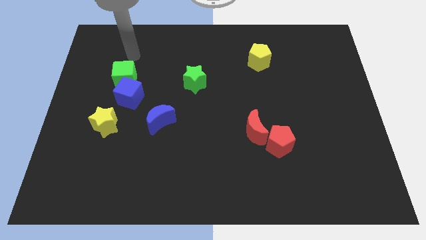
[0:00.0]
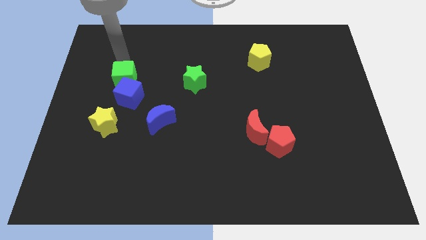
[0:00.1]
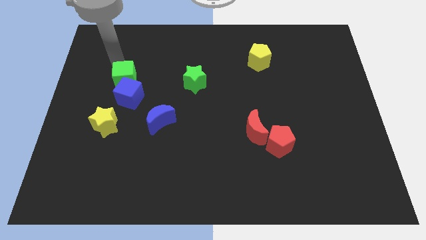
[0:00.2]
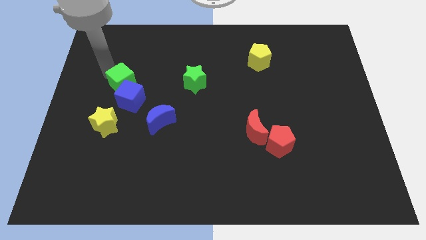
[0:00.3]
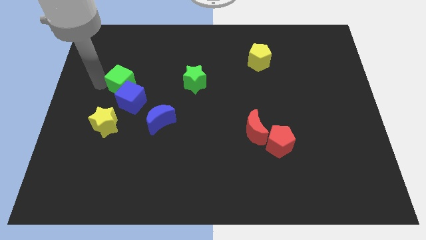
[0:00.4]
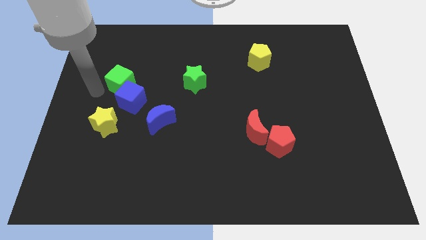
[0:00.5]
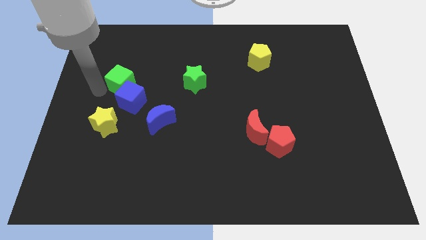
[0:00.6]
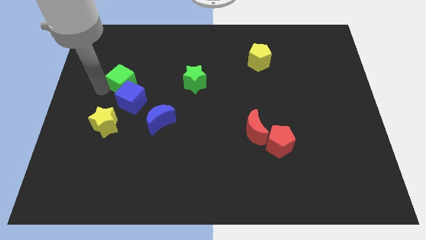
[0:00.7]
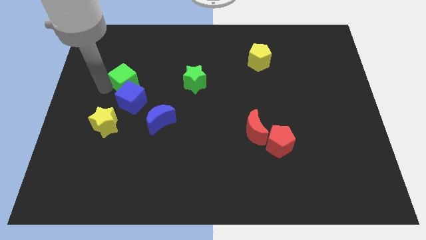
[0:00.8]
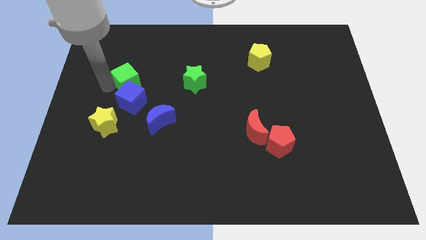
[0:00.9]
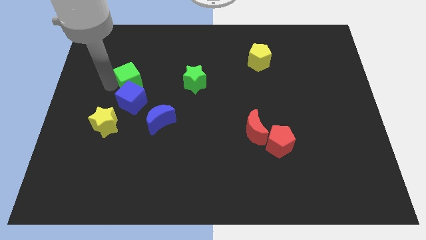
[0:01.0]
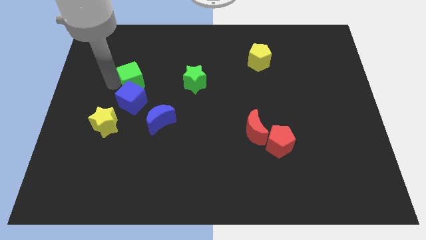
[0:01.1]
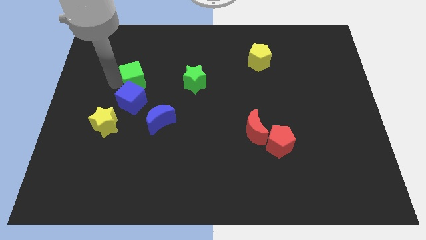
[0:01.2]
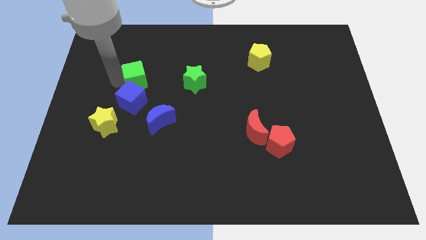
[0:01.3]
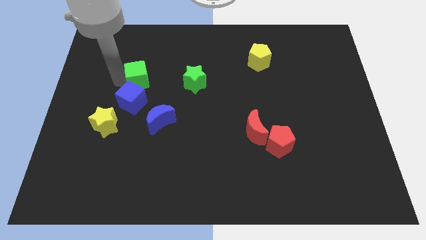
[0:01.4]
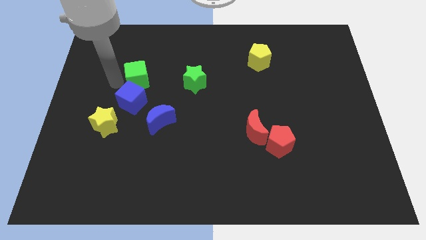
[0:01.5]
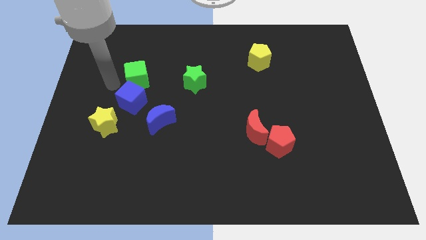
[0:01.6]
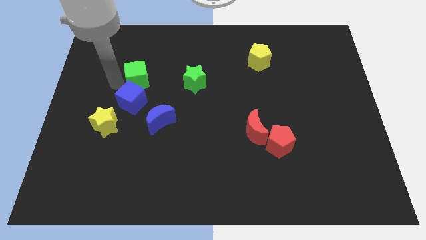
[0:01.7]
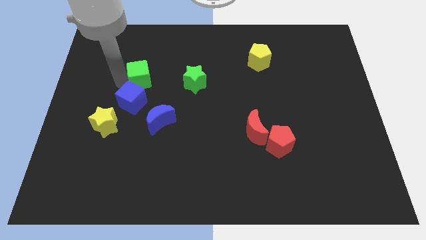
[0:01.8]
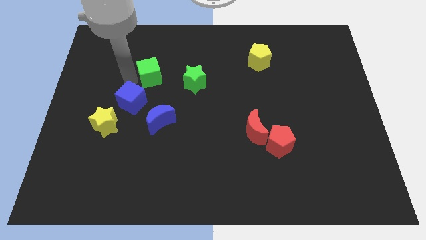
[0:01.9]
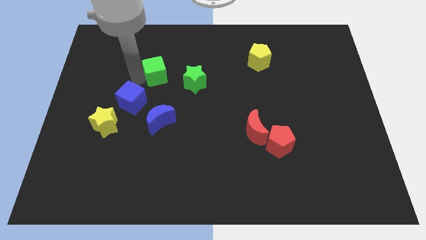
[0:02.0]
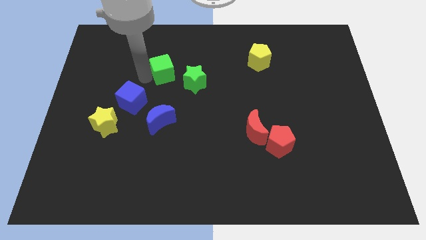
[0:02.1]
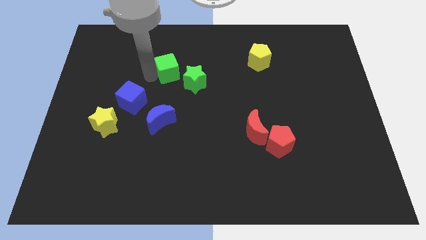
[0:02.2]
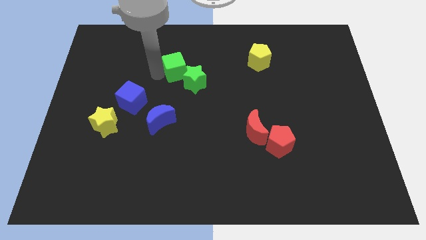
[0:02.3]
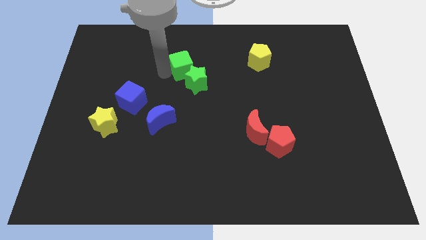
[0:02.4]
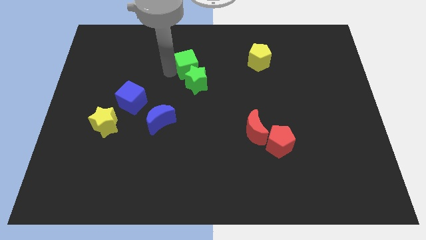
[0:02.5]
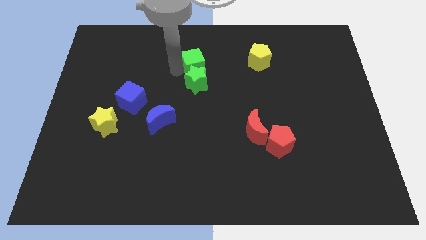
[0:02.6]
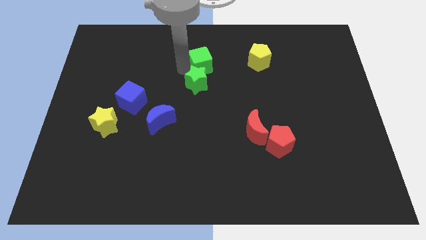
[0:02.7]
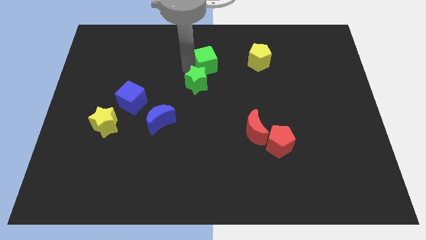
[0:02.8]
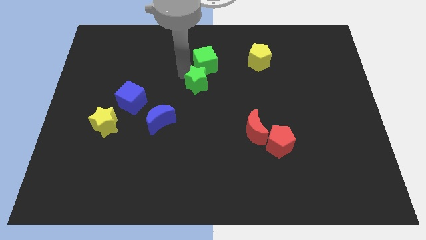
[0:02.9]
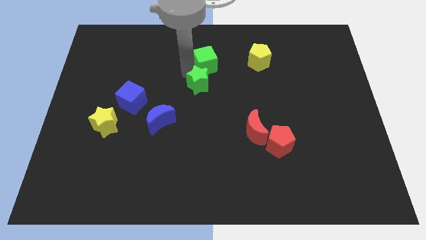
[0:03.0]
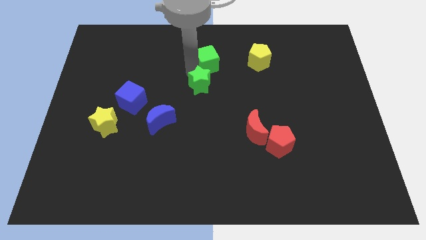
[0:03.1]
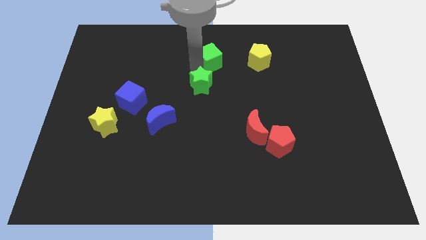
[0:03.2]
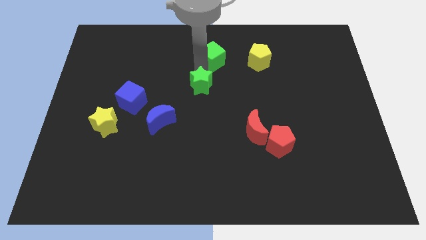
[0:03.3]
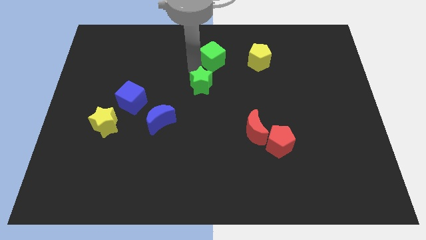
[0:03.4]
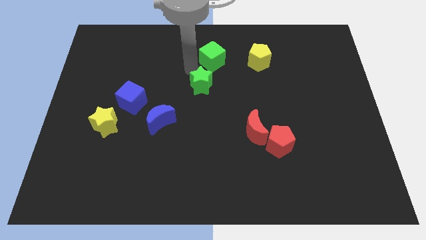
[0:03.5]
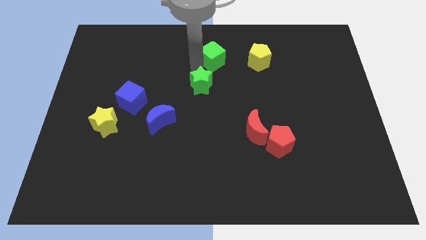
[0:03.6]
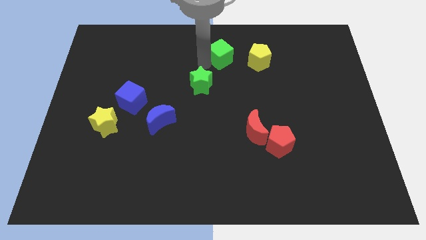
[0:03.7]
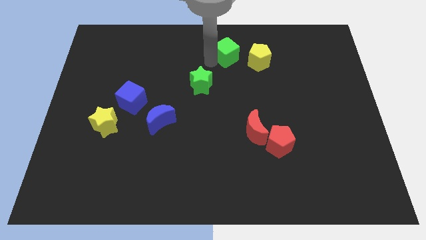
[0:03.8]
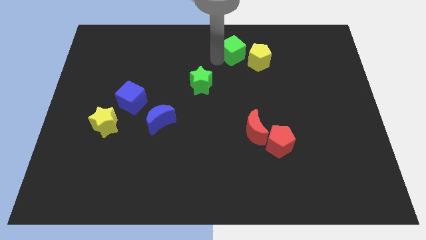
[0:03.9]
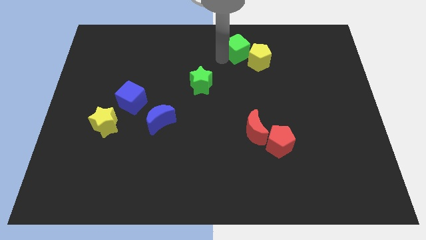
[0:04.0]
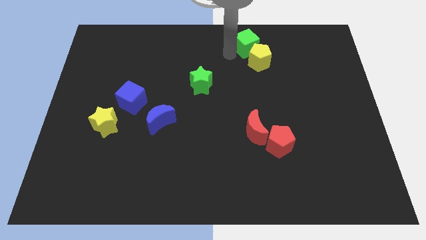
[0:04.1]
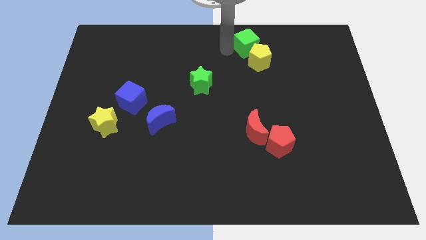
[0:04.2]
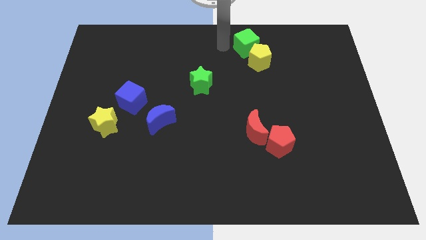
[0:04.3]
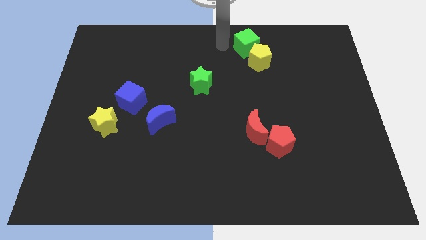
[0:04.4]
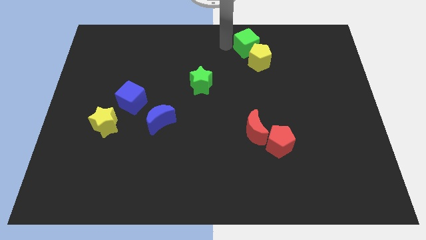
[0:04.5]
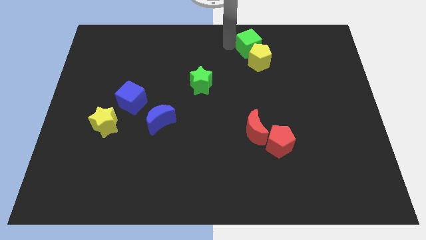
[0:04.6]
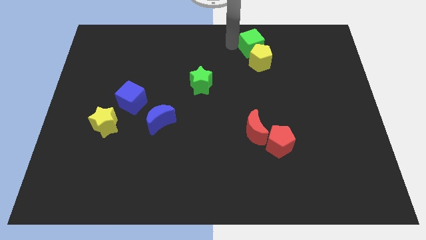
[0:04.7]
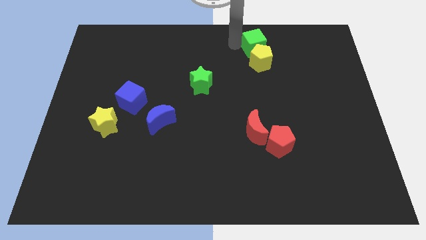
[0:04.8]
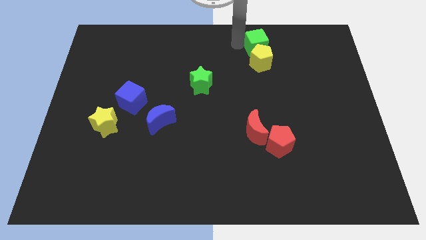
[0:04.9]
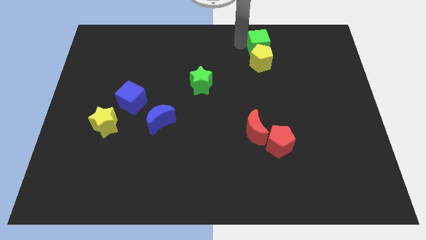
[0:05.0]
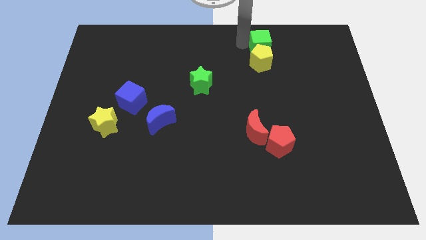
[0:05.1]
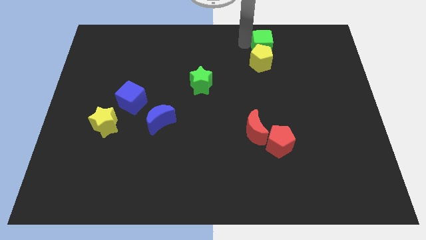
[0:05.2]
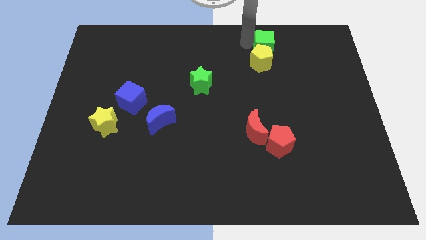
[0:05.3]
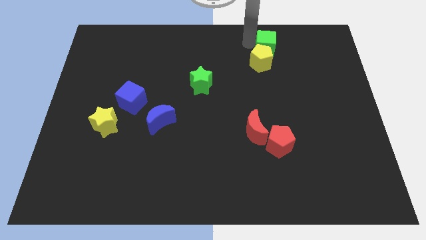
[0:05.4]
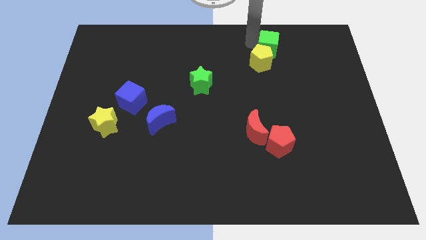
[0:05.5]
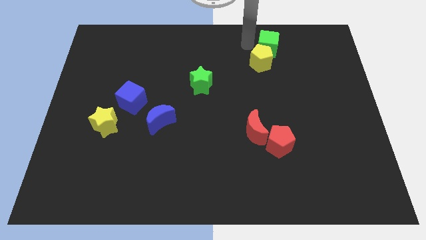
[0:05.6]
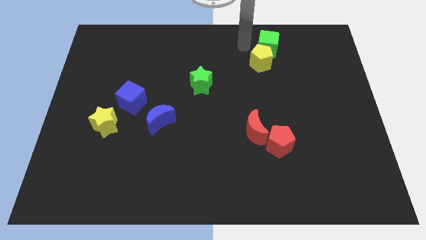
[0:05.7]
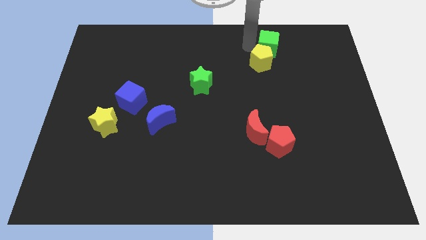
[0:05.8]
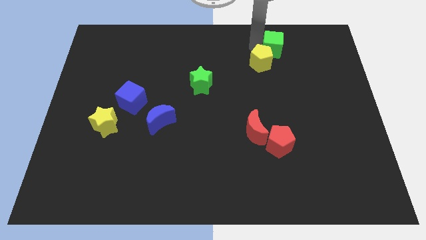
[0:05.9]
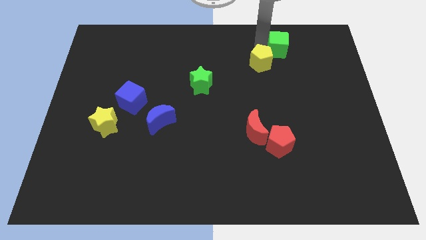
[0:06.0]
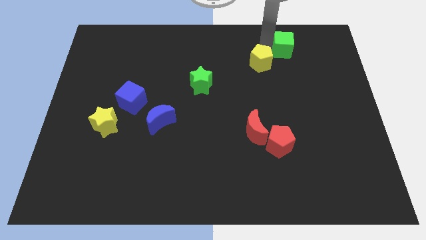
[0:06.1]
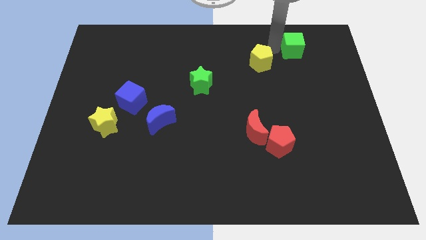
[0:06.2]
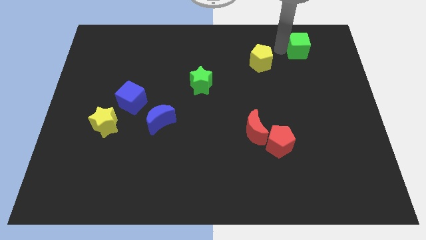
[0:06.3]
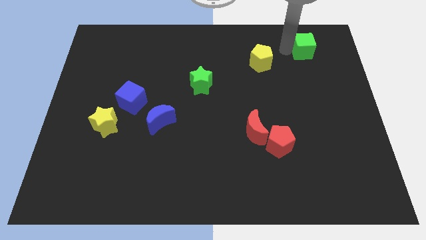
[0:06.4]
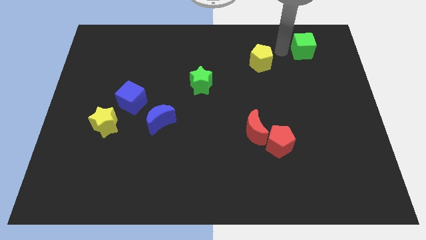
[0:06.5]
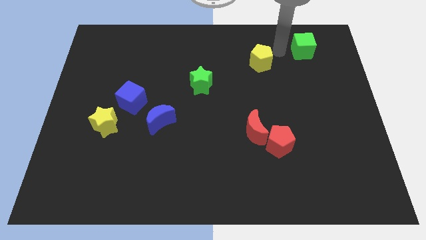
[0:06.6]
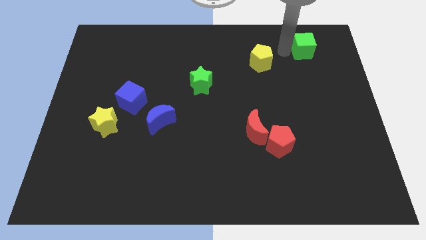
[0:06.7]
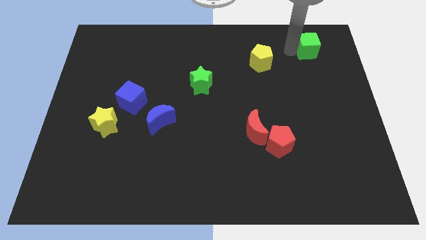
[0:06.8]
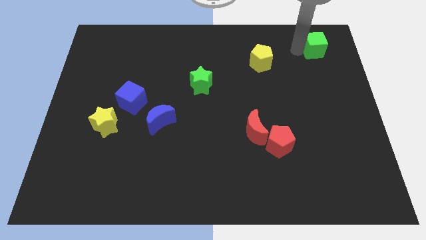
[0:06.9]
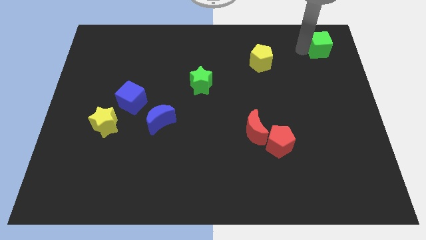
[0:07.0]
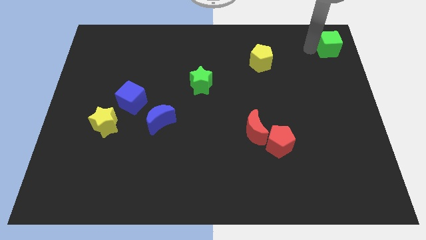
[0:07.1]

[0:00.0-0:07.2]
move the green cube to the upper right corner
